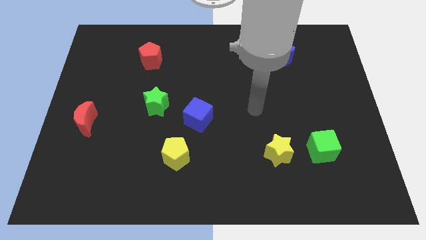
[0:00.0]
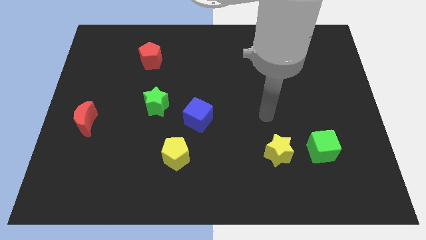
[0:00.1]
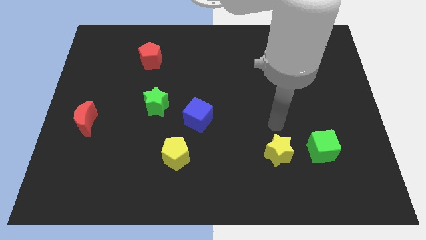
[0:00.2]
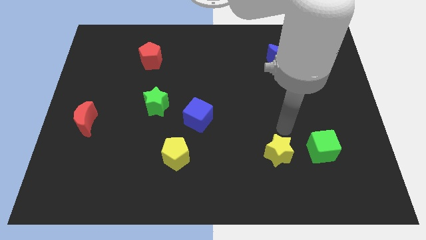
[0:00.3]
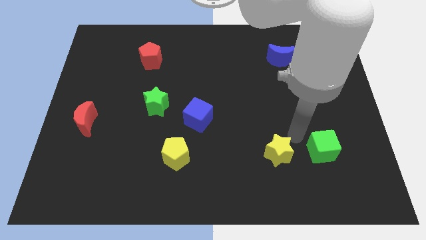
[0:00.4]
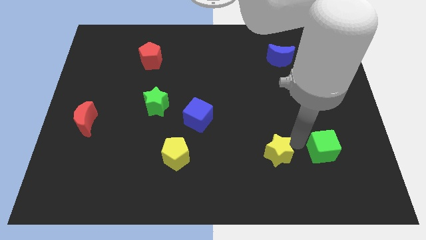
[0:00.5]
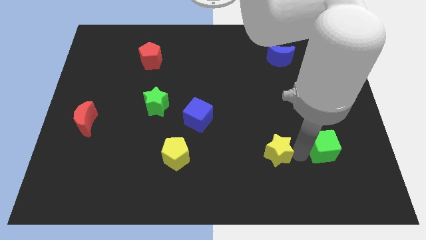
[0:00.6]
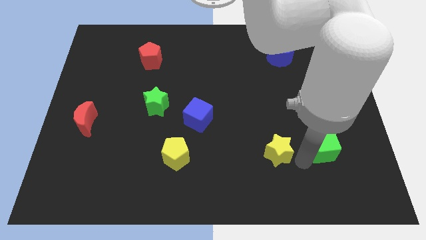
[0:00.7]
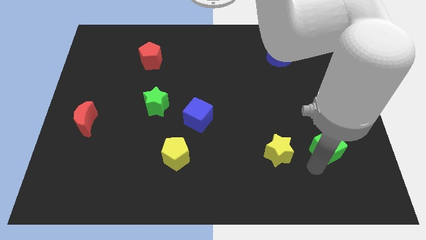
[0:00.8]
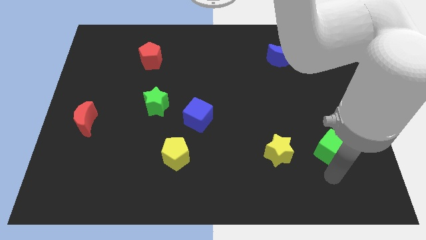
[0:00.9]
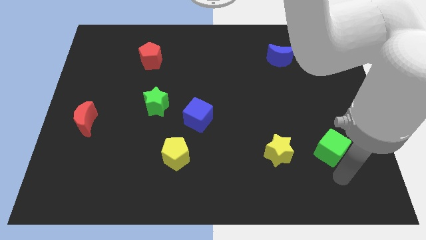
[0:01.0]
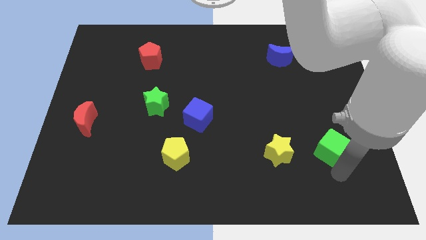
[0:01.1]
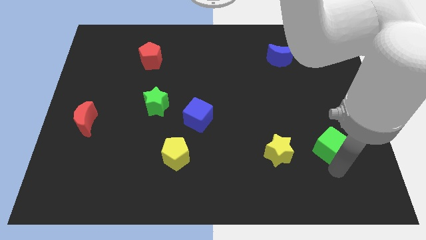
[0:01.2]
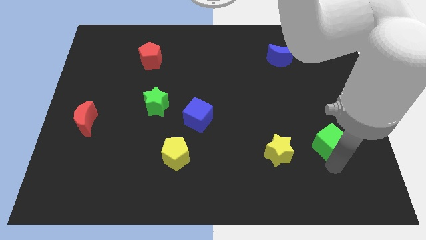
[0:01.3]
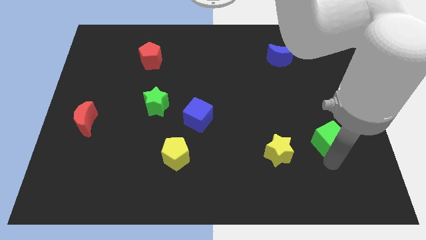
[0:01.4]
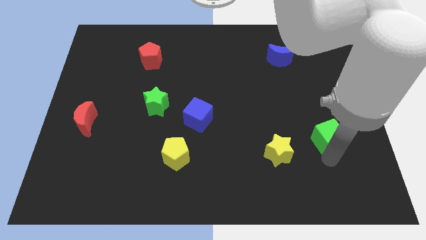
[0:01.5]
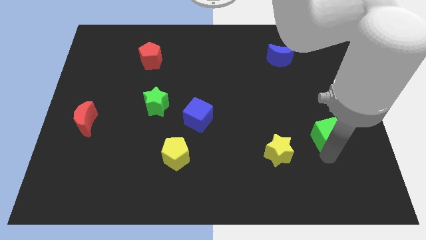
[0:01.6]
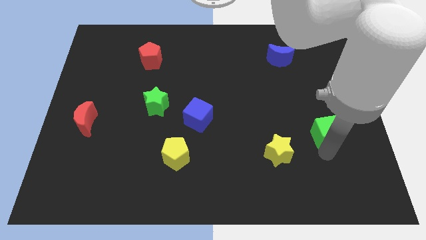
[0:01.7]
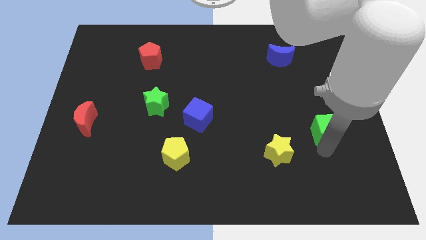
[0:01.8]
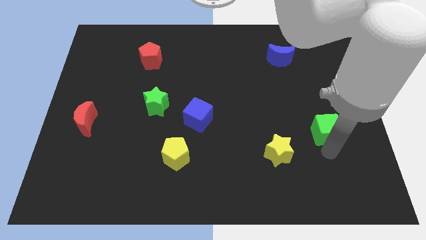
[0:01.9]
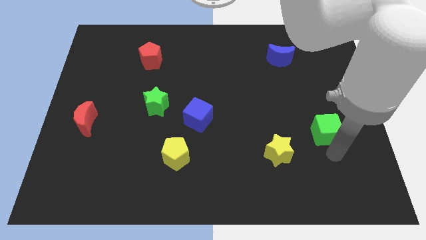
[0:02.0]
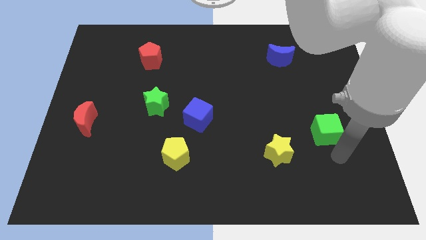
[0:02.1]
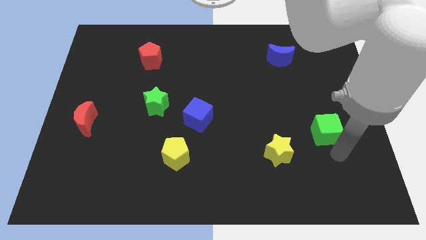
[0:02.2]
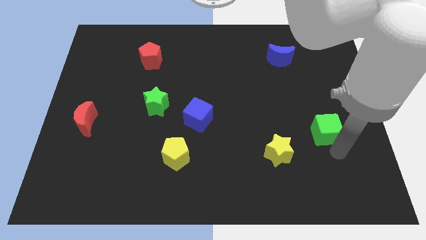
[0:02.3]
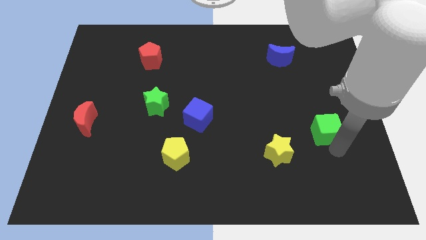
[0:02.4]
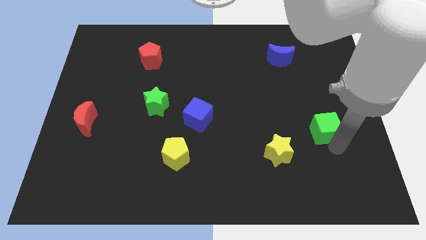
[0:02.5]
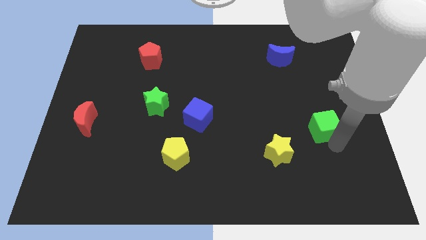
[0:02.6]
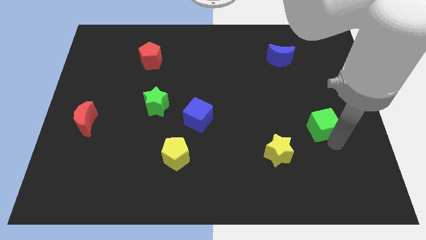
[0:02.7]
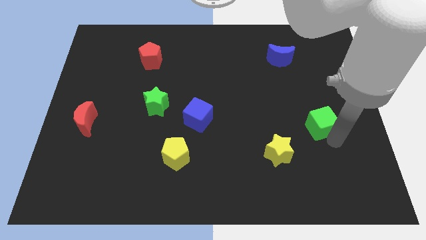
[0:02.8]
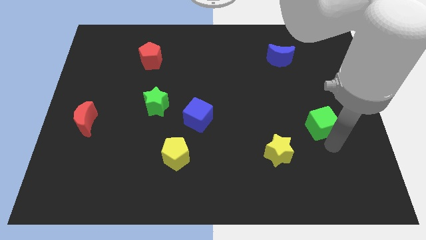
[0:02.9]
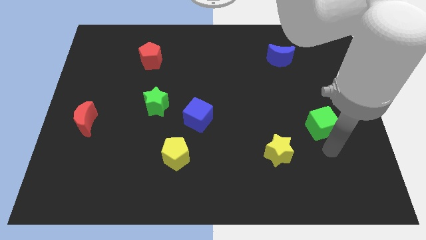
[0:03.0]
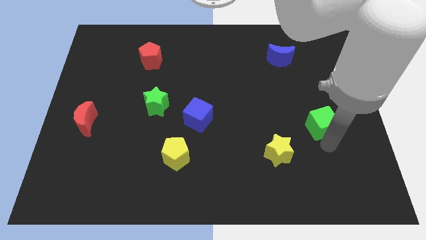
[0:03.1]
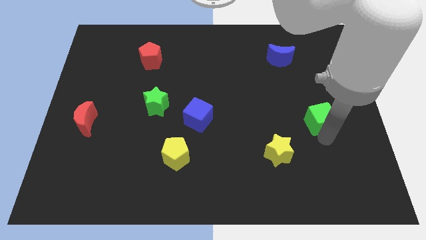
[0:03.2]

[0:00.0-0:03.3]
slightly slide the green cube up

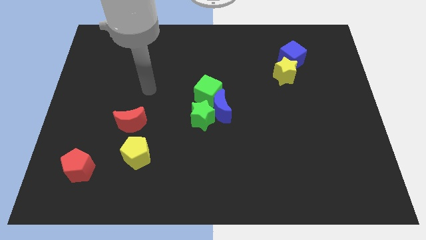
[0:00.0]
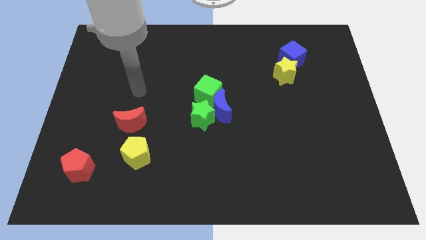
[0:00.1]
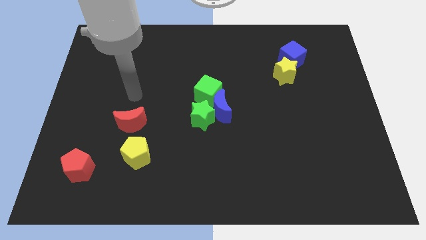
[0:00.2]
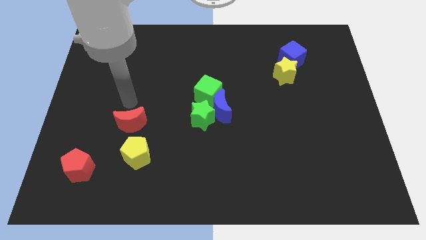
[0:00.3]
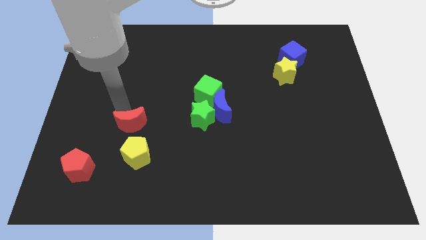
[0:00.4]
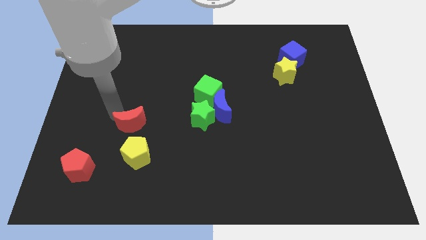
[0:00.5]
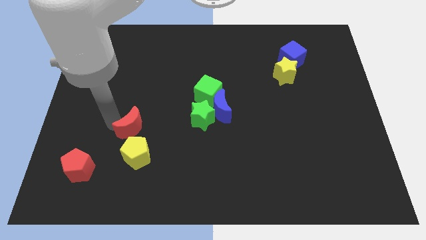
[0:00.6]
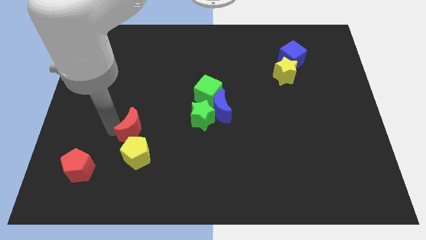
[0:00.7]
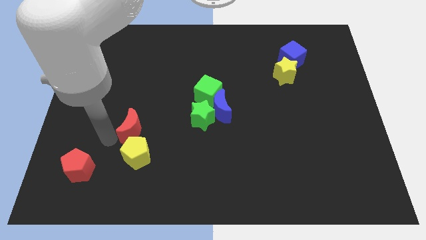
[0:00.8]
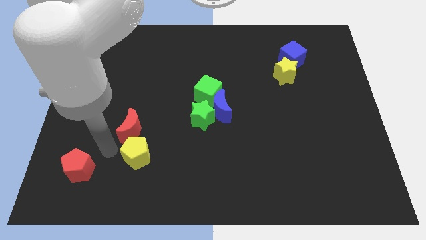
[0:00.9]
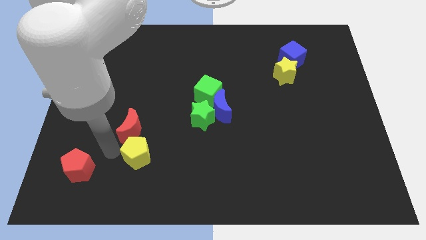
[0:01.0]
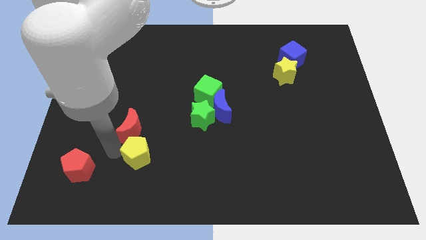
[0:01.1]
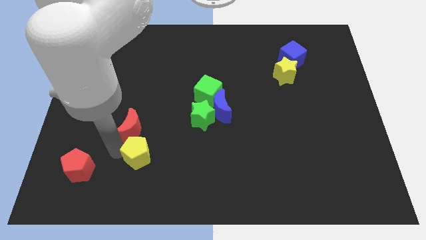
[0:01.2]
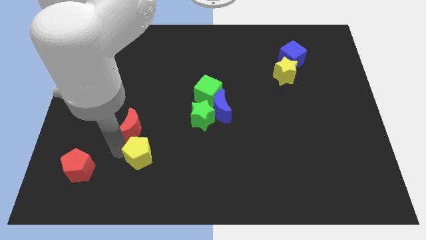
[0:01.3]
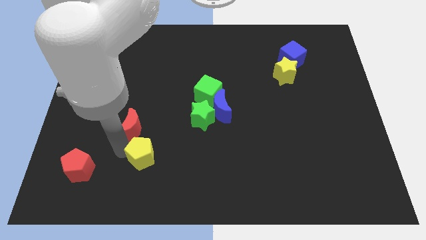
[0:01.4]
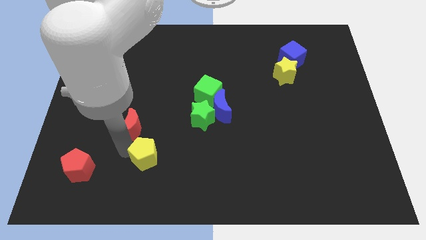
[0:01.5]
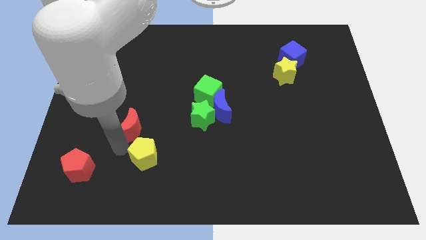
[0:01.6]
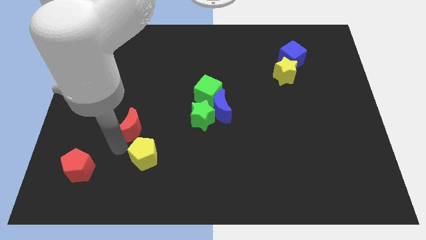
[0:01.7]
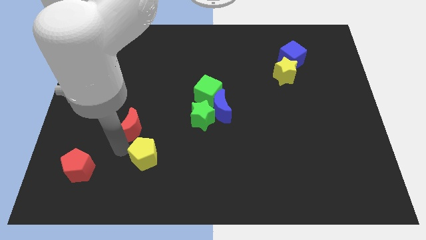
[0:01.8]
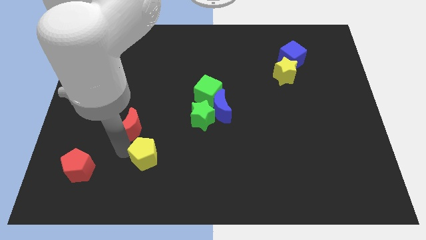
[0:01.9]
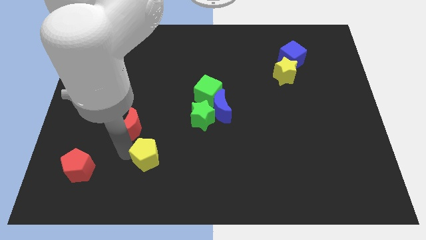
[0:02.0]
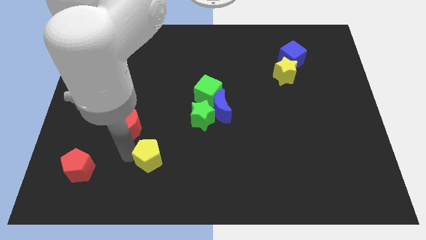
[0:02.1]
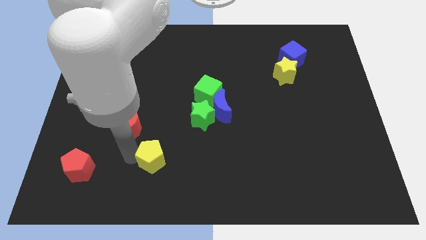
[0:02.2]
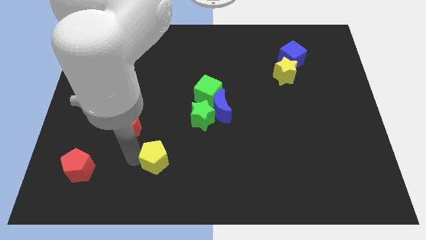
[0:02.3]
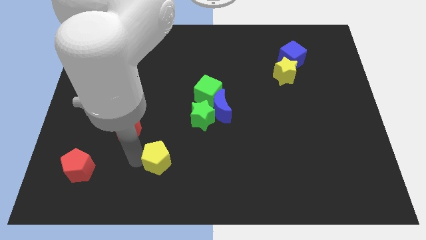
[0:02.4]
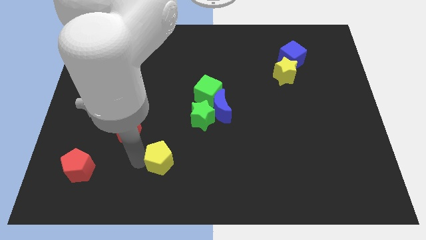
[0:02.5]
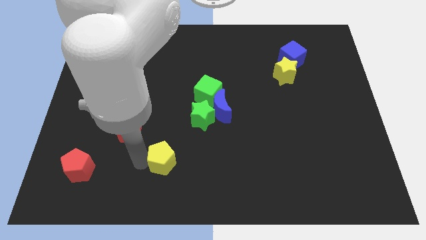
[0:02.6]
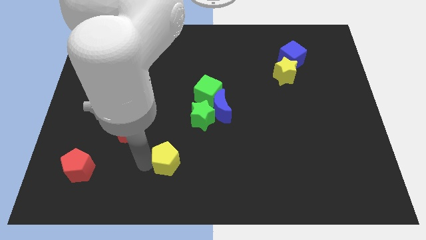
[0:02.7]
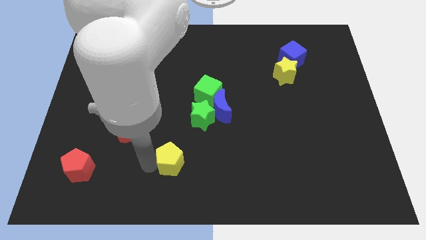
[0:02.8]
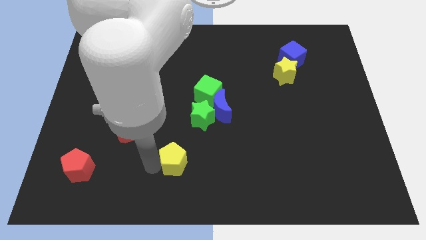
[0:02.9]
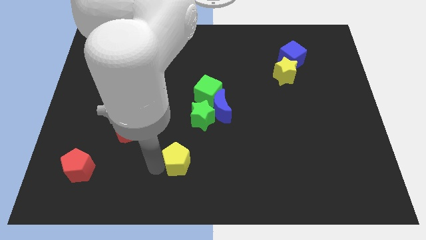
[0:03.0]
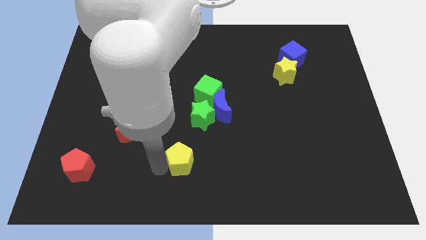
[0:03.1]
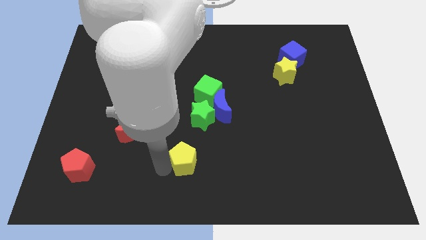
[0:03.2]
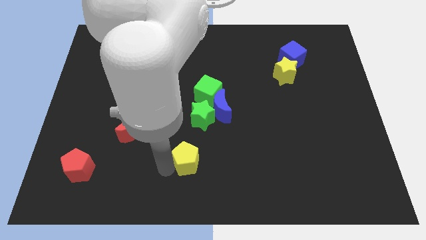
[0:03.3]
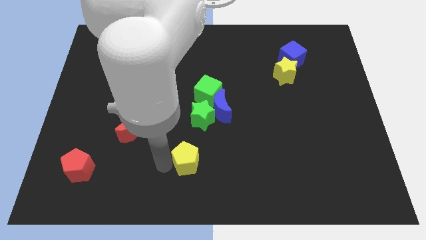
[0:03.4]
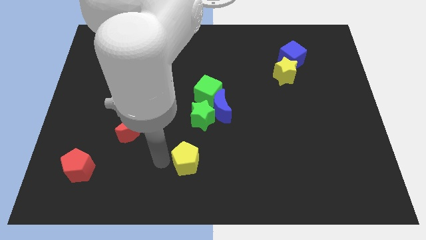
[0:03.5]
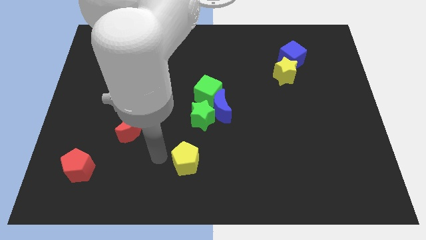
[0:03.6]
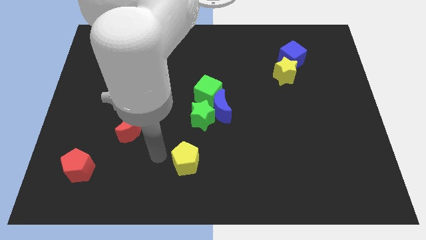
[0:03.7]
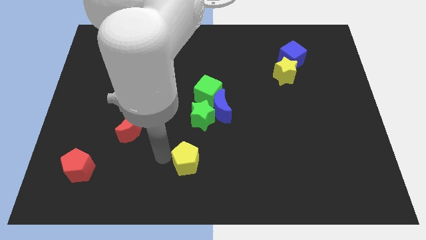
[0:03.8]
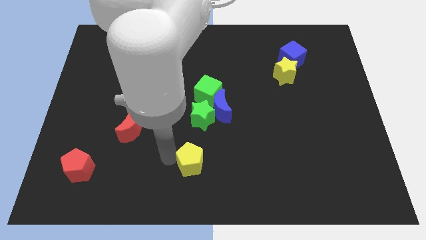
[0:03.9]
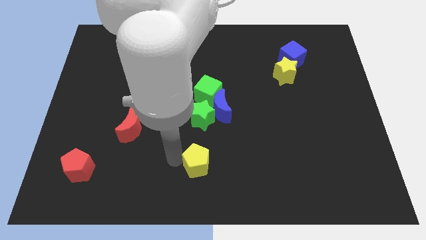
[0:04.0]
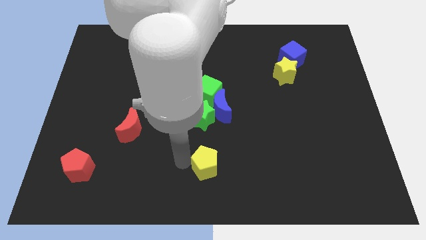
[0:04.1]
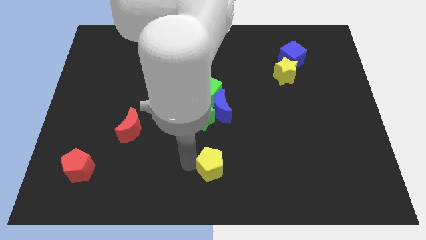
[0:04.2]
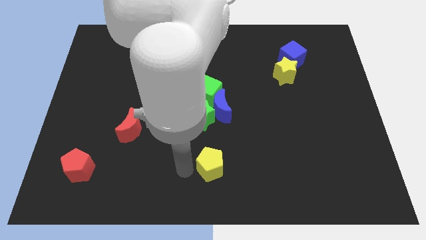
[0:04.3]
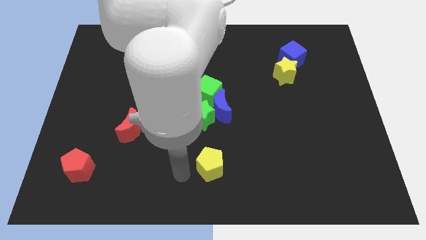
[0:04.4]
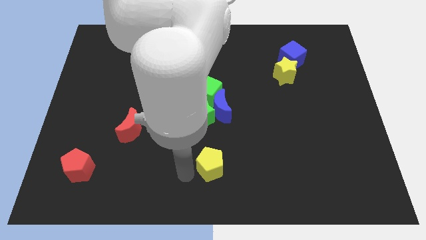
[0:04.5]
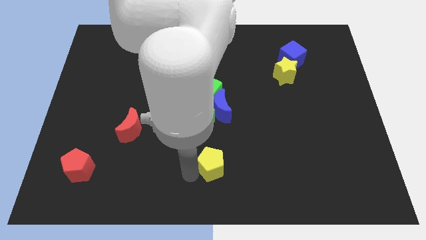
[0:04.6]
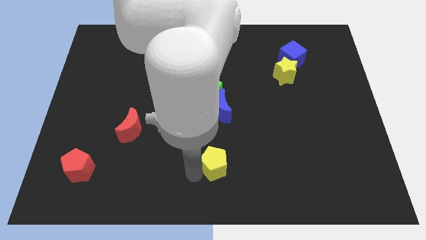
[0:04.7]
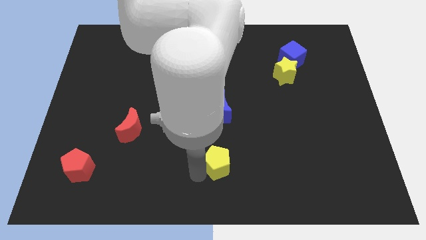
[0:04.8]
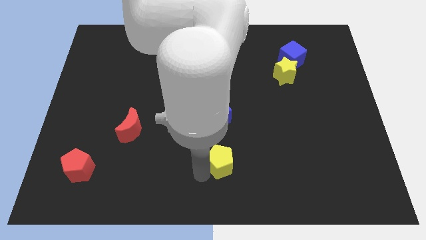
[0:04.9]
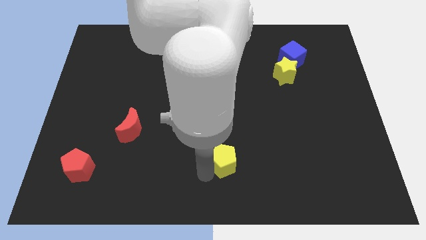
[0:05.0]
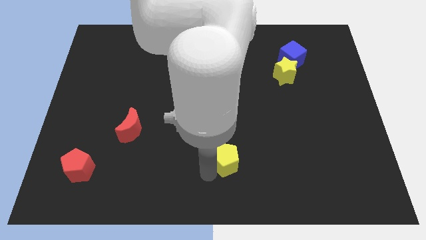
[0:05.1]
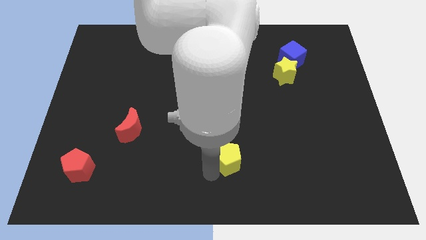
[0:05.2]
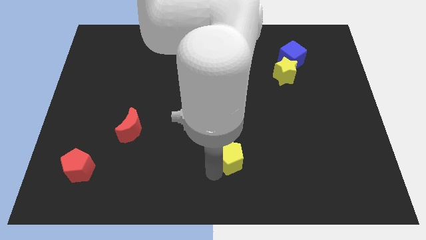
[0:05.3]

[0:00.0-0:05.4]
move the yellow pentagon to the right
